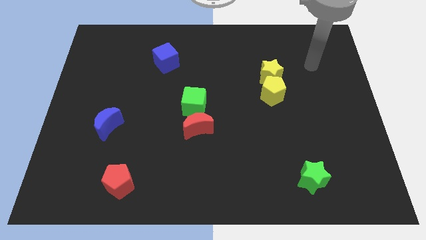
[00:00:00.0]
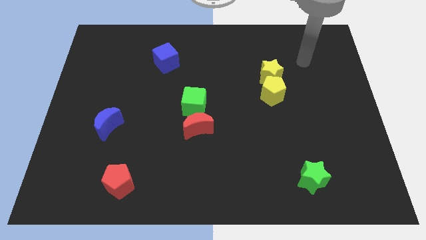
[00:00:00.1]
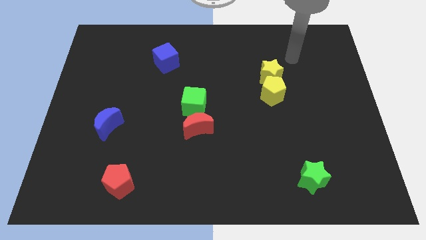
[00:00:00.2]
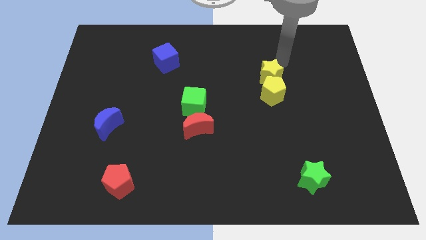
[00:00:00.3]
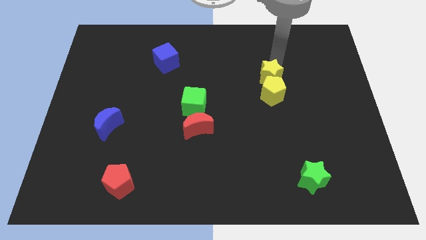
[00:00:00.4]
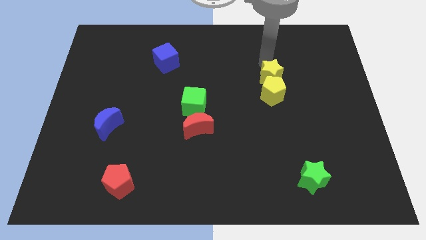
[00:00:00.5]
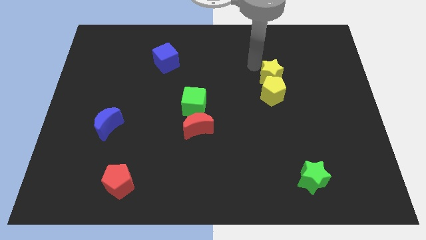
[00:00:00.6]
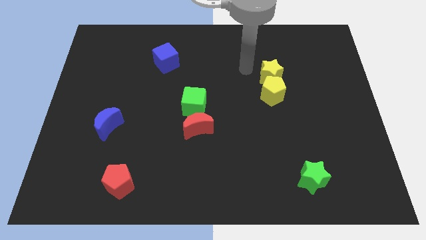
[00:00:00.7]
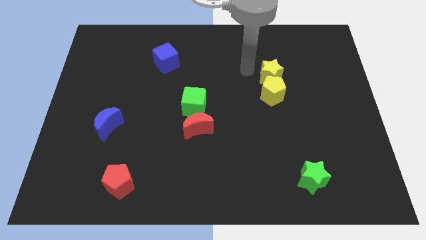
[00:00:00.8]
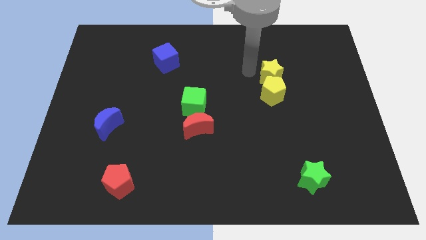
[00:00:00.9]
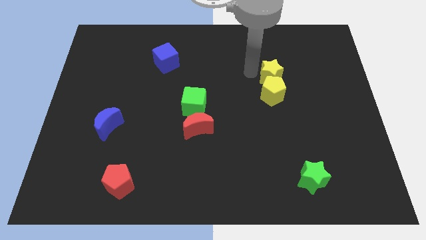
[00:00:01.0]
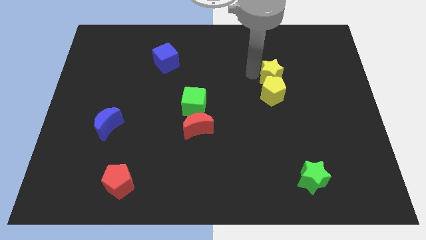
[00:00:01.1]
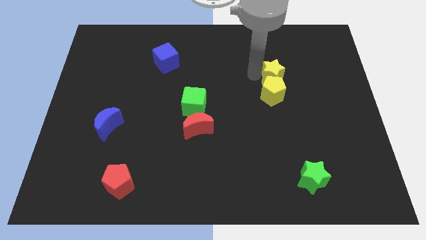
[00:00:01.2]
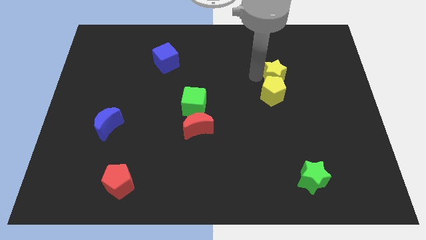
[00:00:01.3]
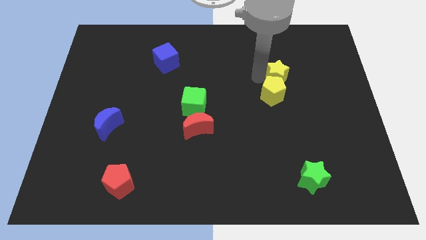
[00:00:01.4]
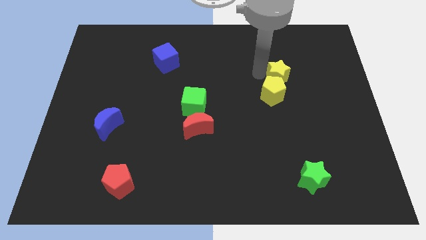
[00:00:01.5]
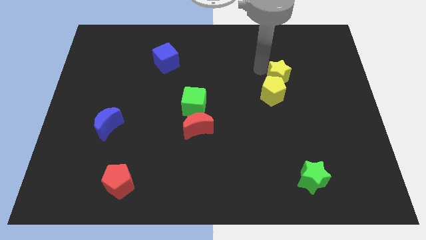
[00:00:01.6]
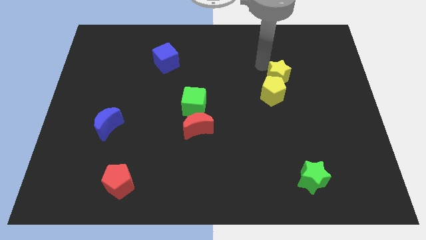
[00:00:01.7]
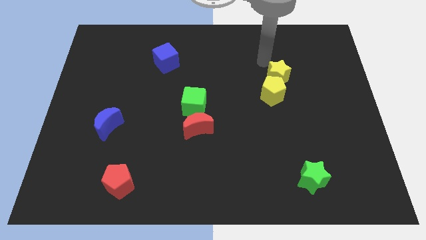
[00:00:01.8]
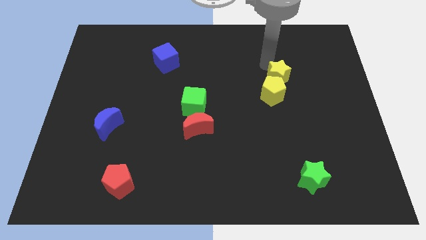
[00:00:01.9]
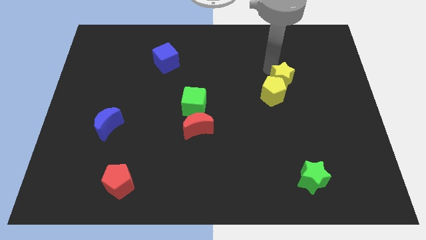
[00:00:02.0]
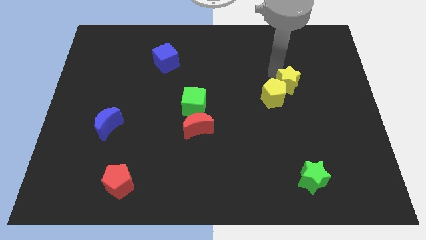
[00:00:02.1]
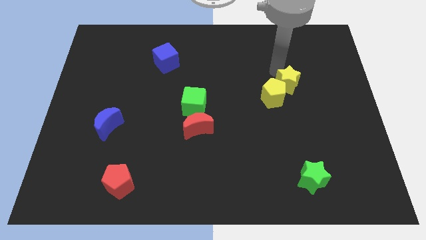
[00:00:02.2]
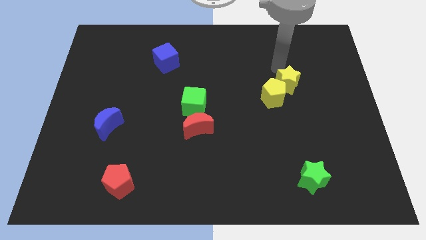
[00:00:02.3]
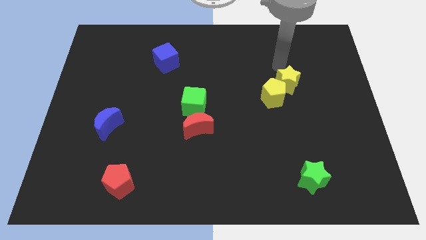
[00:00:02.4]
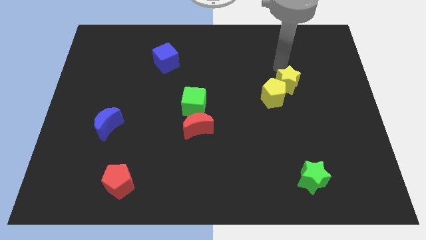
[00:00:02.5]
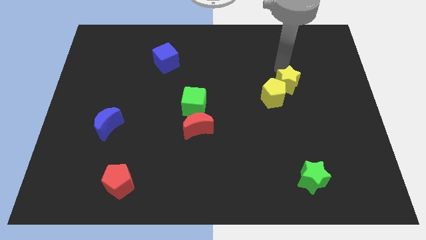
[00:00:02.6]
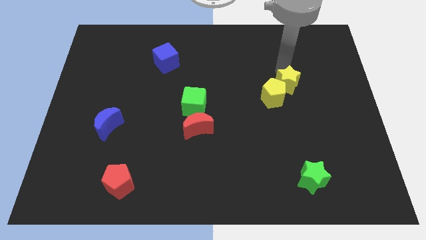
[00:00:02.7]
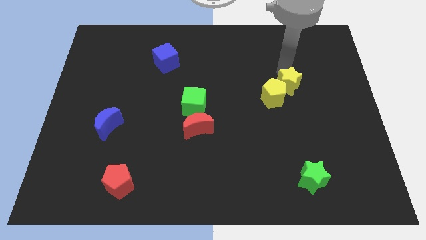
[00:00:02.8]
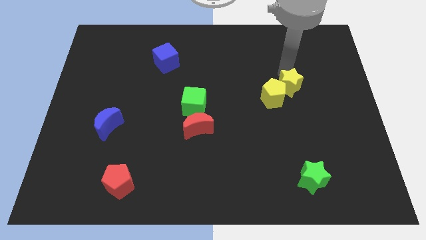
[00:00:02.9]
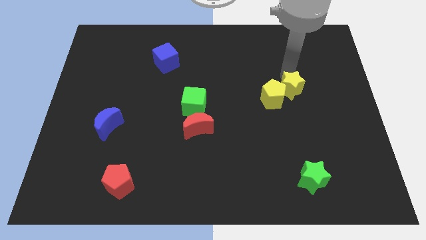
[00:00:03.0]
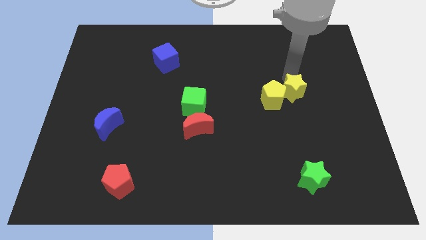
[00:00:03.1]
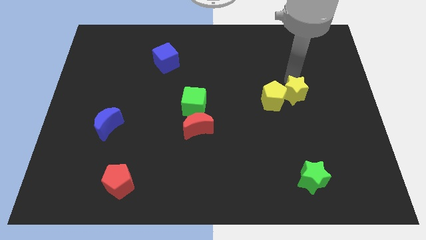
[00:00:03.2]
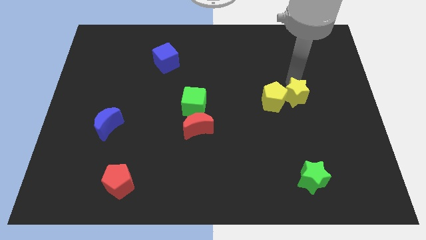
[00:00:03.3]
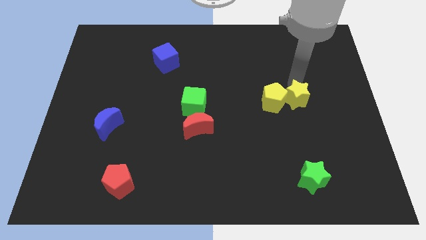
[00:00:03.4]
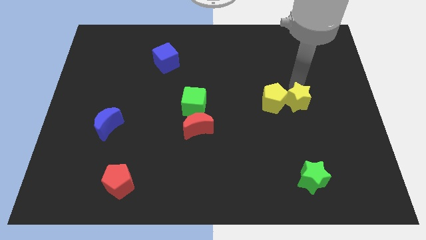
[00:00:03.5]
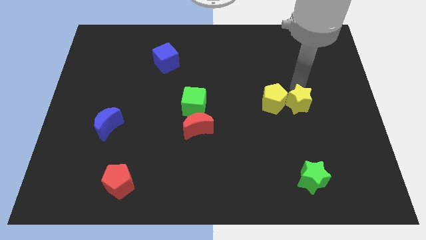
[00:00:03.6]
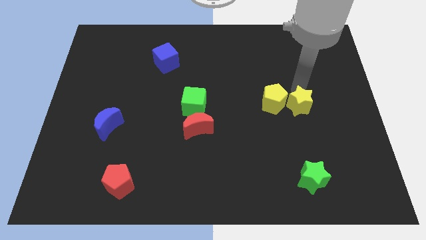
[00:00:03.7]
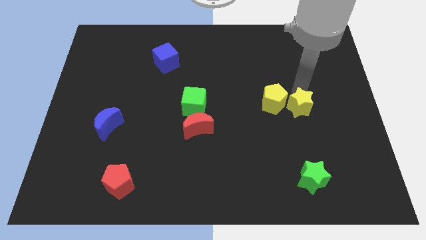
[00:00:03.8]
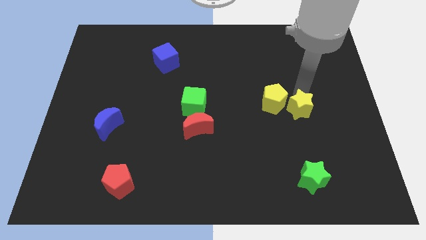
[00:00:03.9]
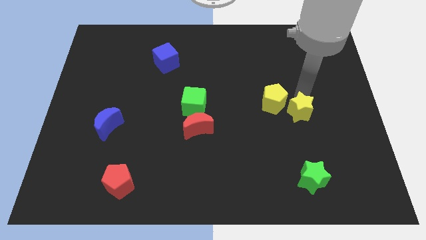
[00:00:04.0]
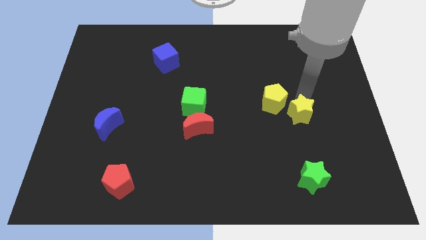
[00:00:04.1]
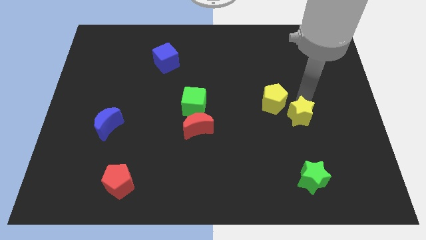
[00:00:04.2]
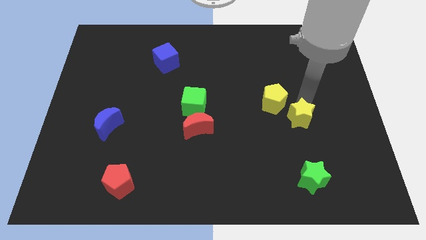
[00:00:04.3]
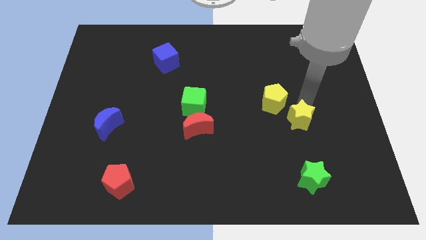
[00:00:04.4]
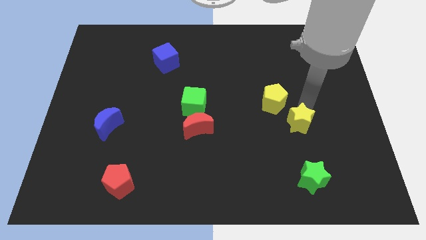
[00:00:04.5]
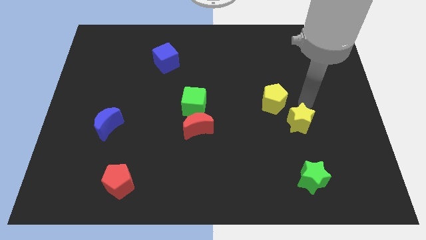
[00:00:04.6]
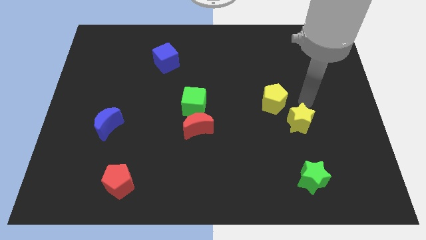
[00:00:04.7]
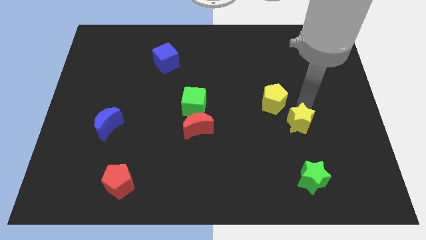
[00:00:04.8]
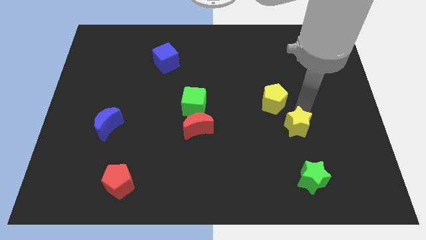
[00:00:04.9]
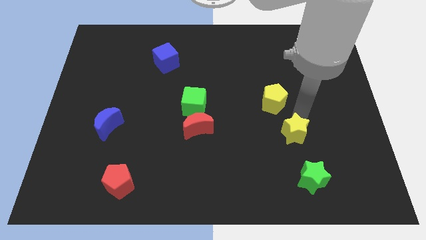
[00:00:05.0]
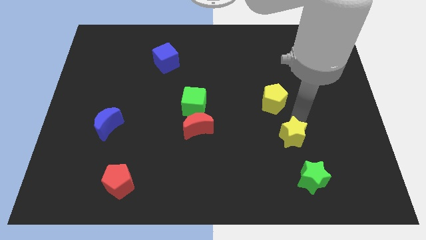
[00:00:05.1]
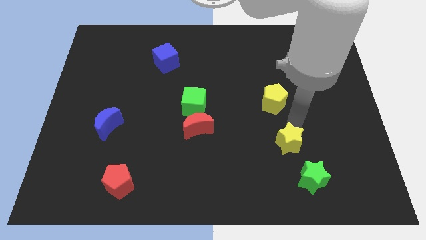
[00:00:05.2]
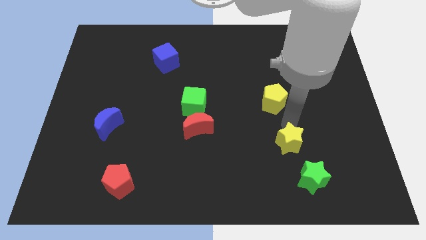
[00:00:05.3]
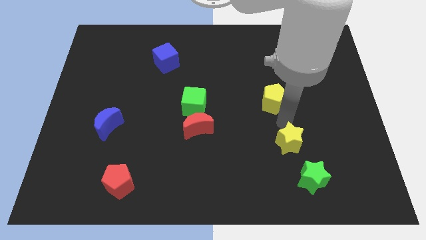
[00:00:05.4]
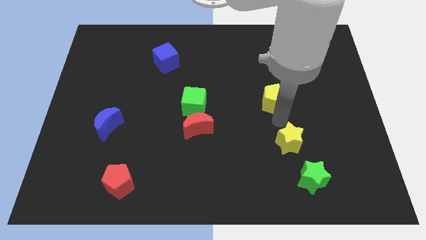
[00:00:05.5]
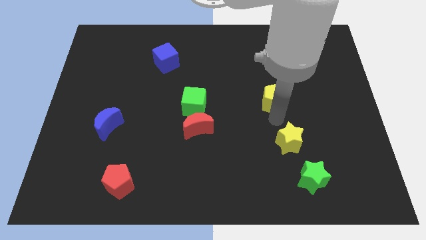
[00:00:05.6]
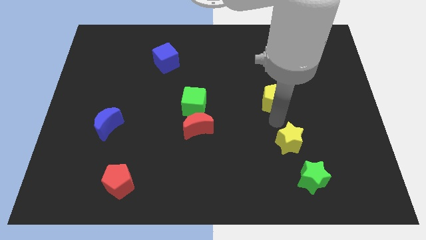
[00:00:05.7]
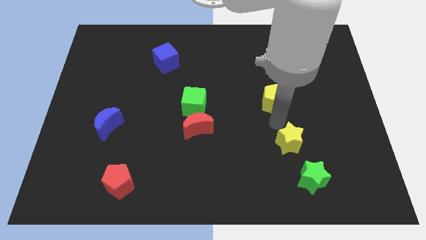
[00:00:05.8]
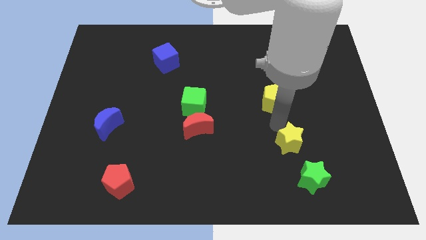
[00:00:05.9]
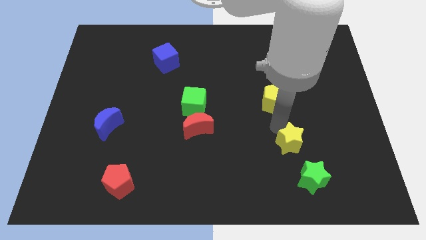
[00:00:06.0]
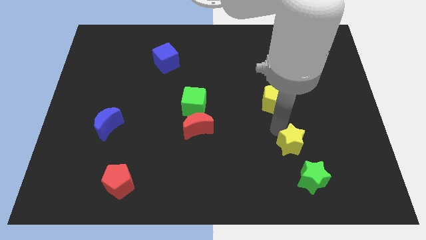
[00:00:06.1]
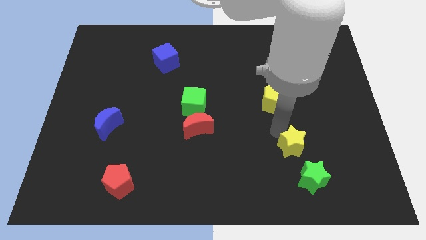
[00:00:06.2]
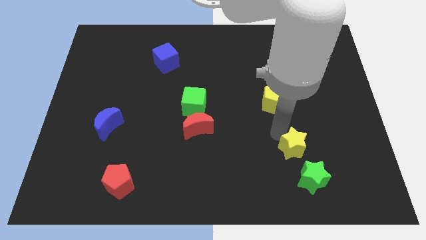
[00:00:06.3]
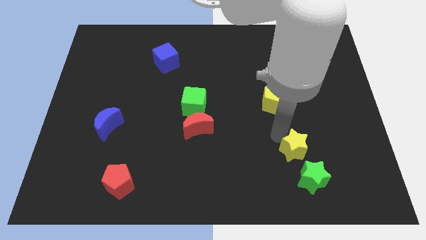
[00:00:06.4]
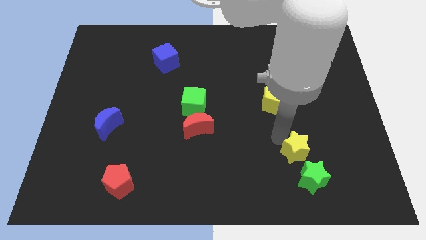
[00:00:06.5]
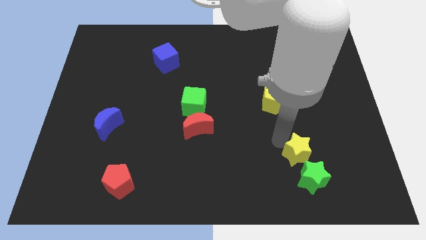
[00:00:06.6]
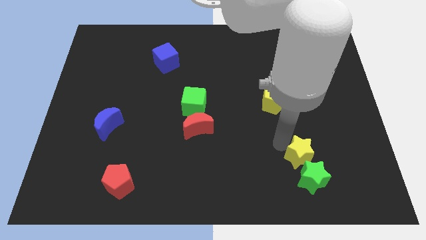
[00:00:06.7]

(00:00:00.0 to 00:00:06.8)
push the yellow star to the green star
